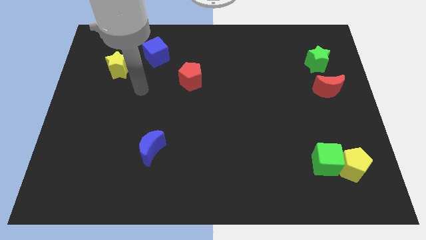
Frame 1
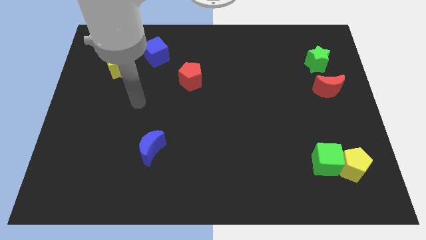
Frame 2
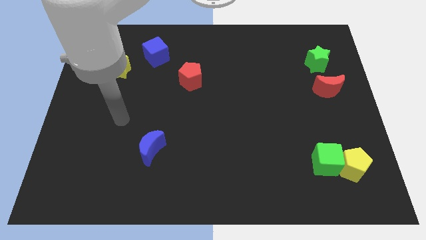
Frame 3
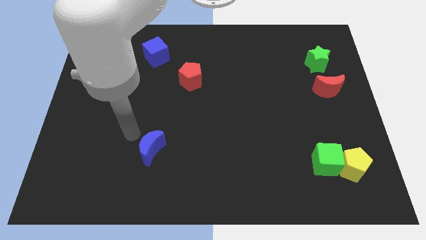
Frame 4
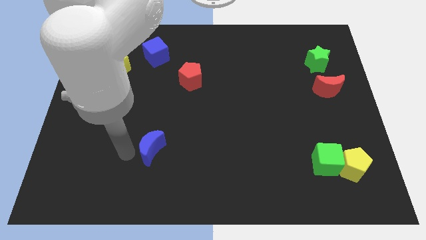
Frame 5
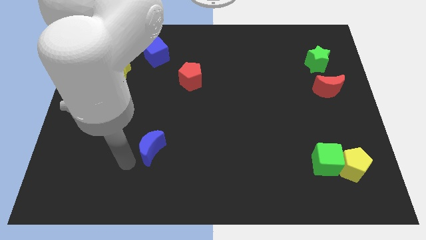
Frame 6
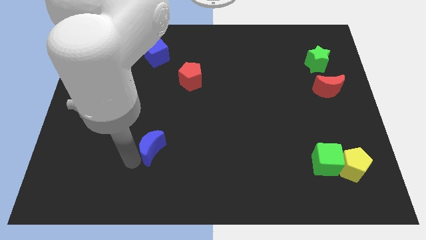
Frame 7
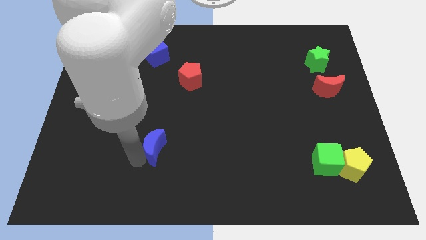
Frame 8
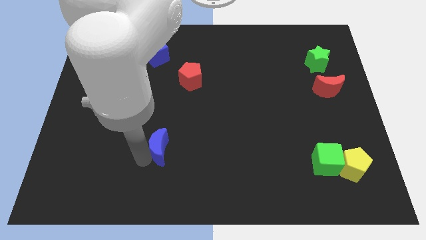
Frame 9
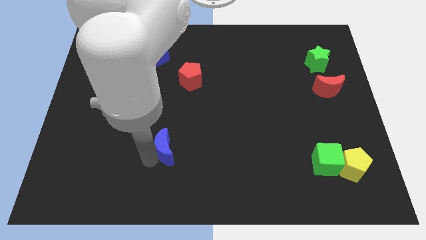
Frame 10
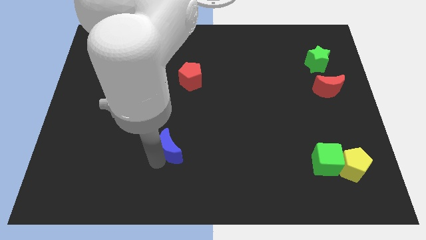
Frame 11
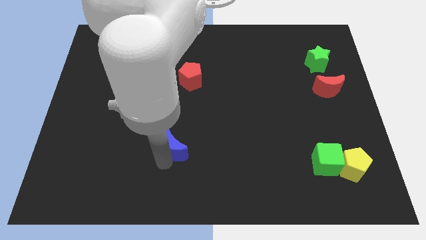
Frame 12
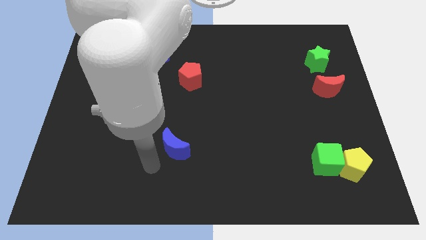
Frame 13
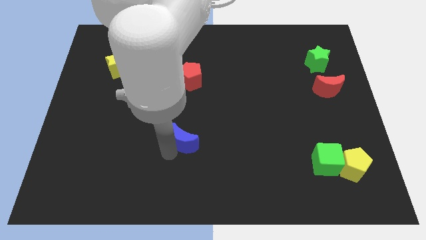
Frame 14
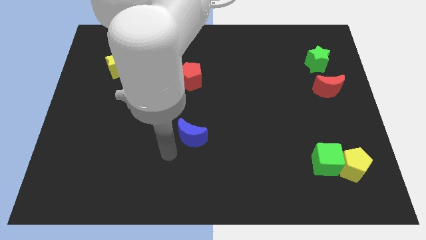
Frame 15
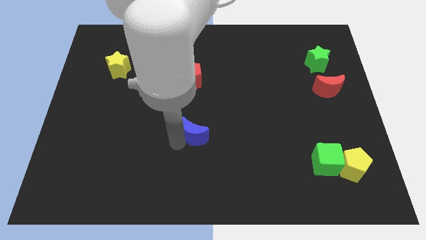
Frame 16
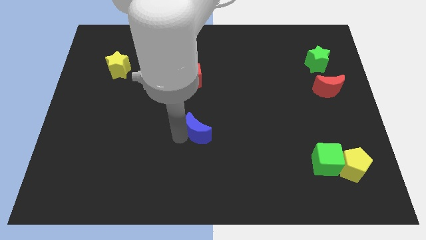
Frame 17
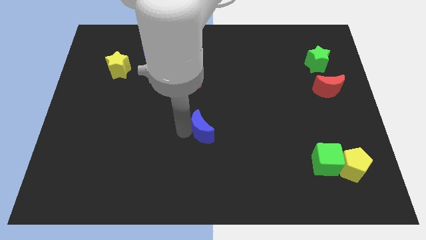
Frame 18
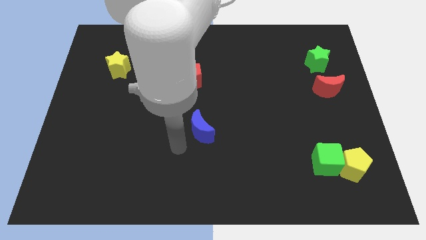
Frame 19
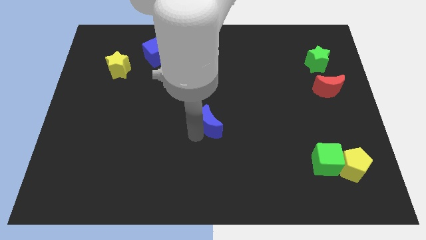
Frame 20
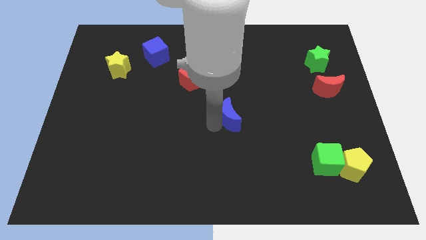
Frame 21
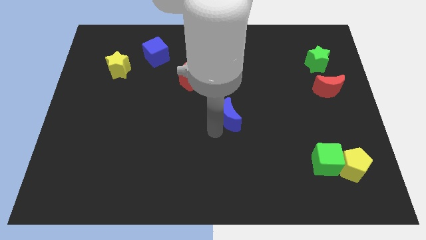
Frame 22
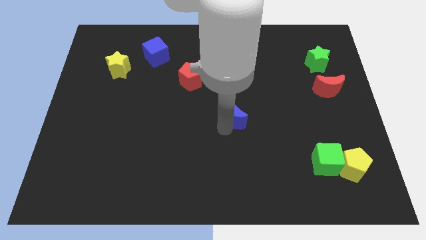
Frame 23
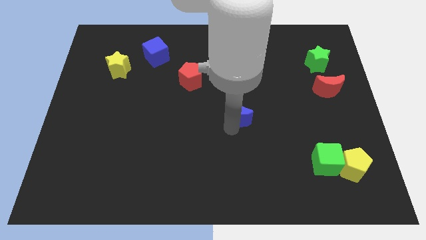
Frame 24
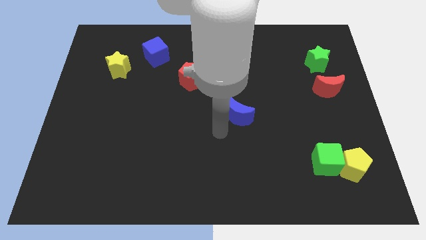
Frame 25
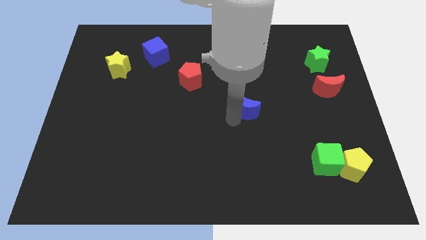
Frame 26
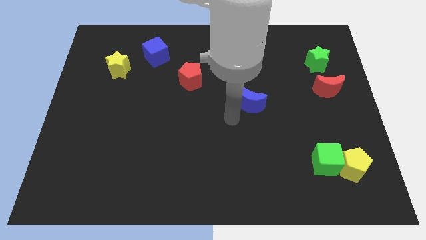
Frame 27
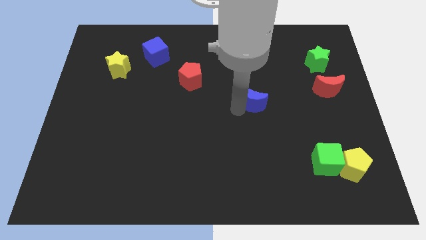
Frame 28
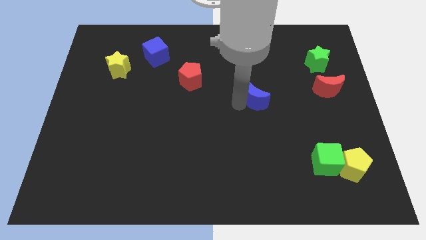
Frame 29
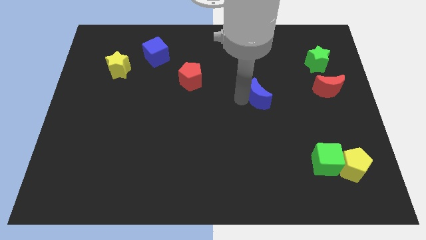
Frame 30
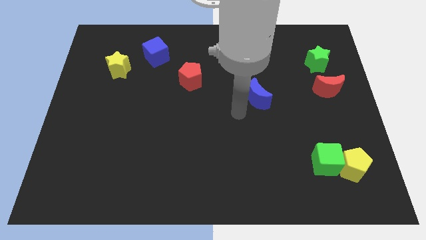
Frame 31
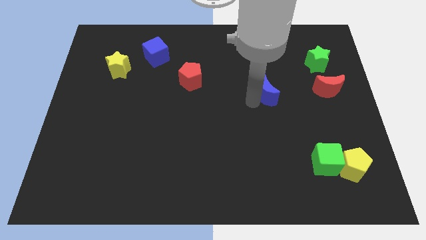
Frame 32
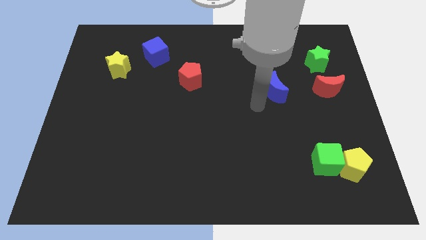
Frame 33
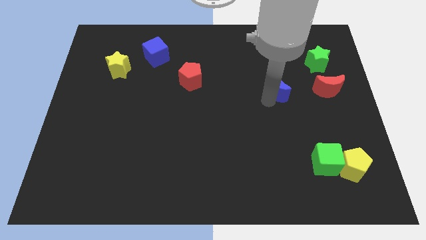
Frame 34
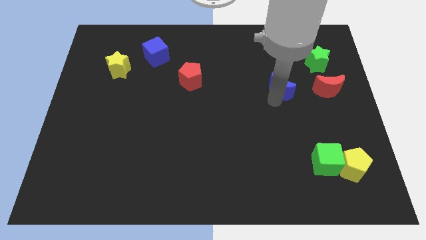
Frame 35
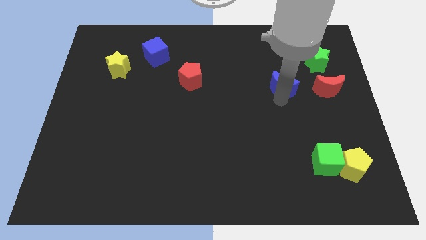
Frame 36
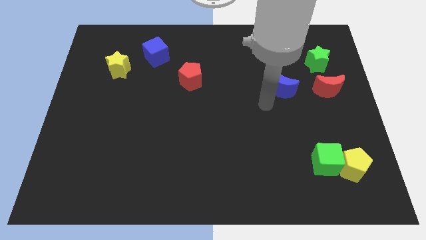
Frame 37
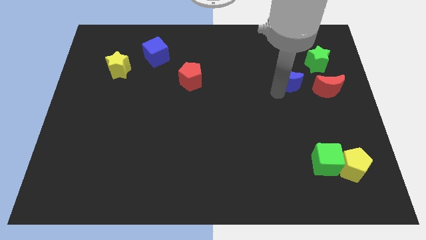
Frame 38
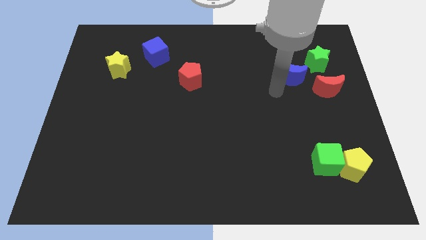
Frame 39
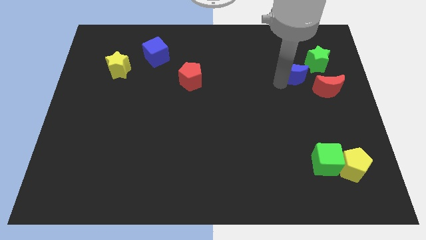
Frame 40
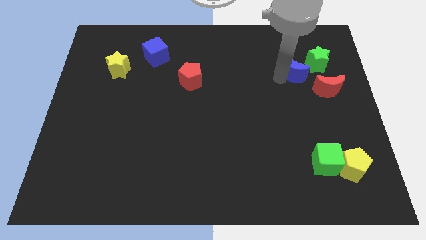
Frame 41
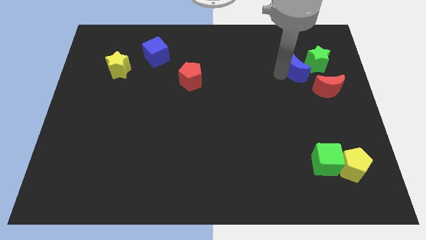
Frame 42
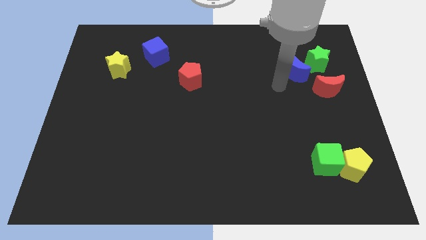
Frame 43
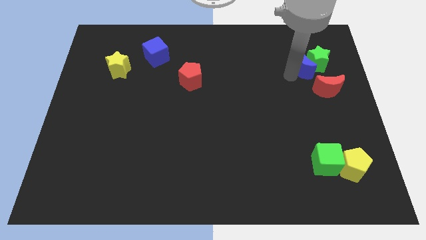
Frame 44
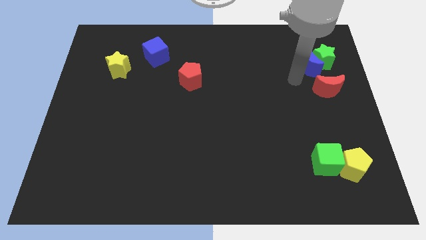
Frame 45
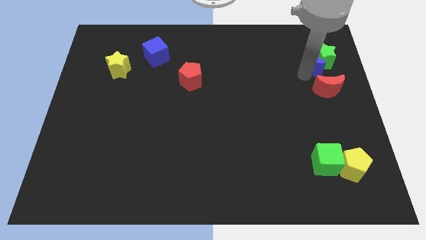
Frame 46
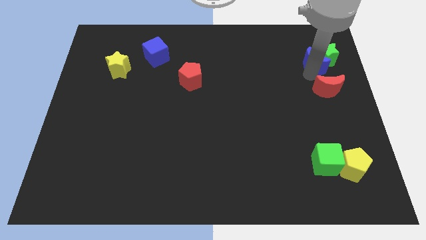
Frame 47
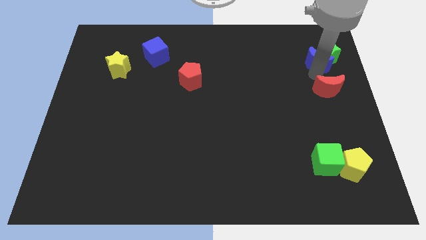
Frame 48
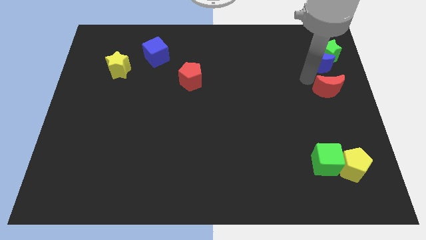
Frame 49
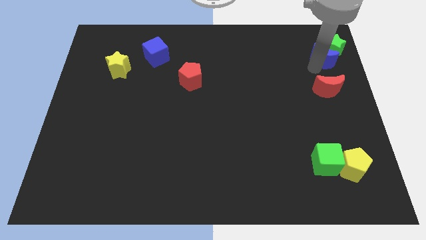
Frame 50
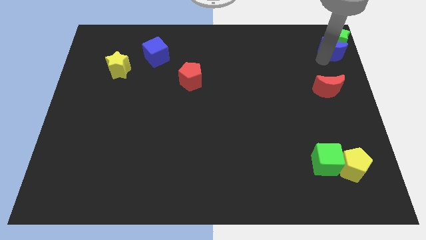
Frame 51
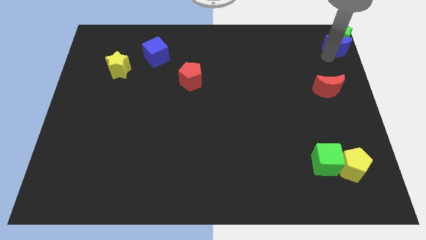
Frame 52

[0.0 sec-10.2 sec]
put the blue moon to the upper right corner

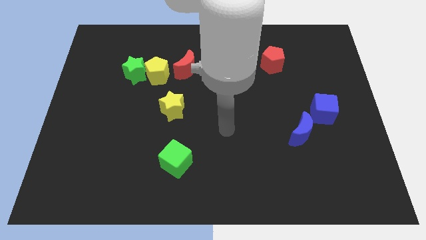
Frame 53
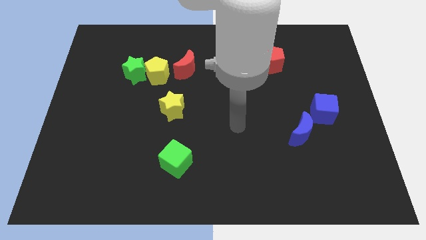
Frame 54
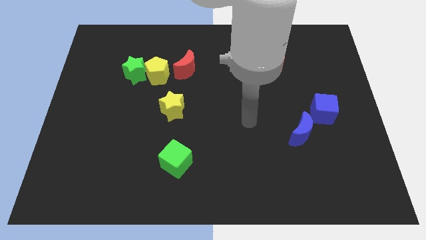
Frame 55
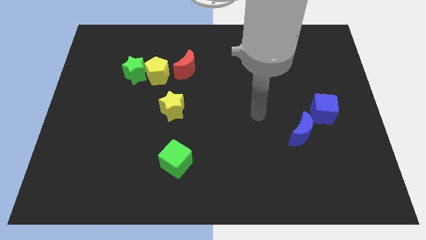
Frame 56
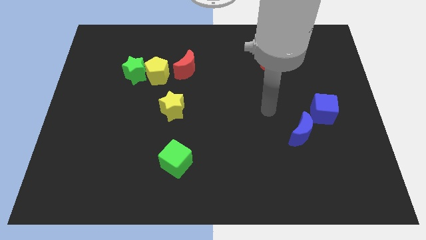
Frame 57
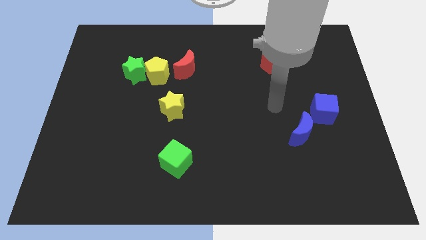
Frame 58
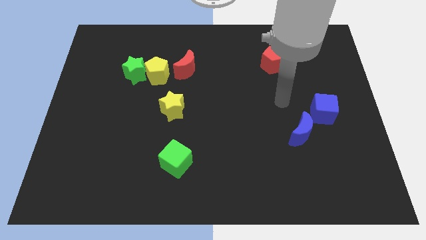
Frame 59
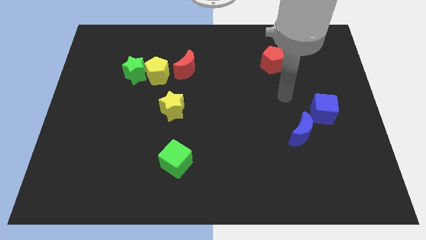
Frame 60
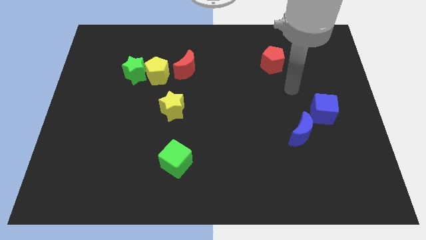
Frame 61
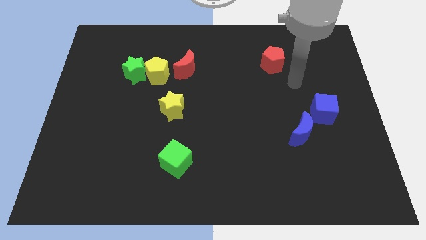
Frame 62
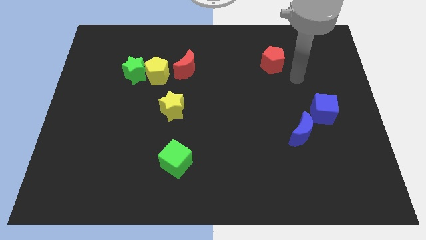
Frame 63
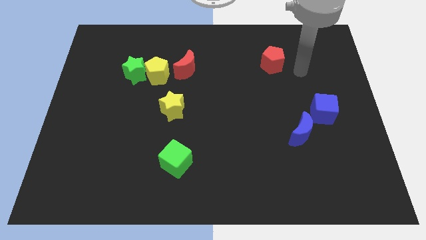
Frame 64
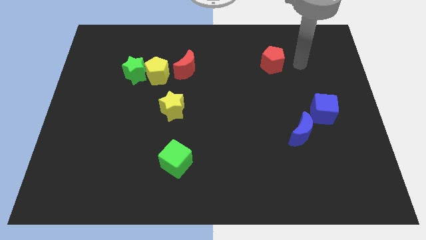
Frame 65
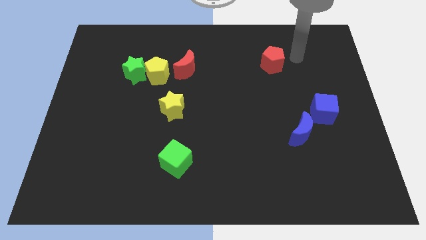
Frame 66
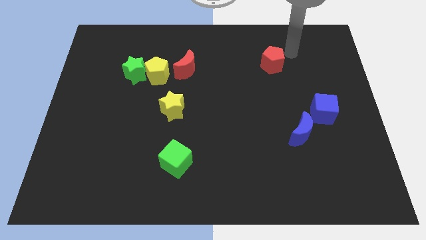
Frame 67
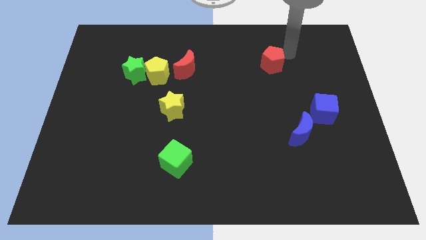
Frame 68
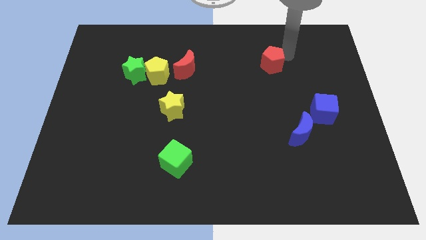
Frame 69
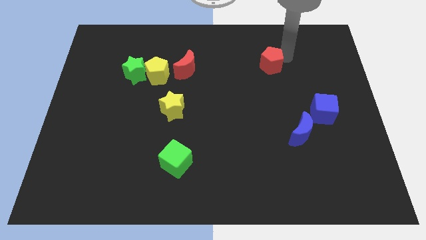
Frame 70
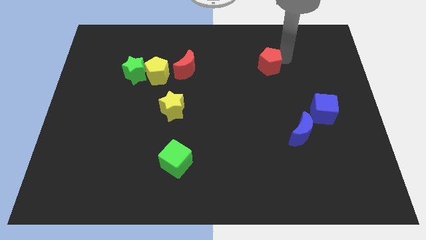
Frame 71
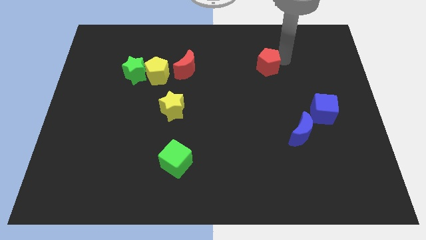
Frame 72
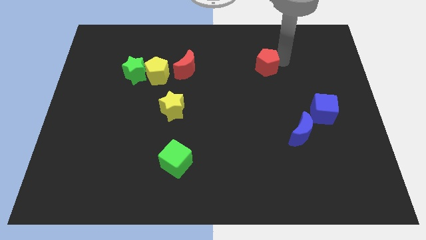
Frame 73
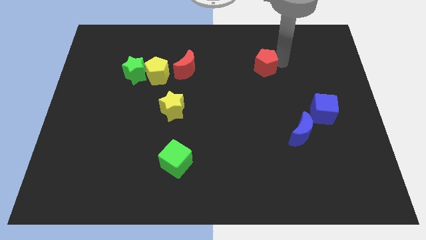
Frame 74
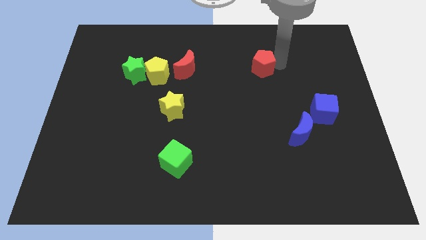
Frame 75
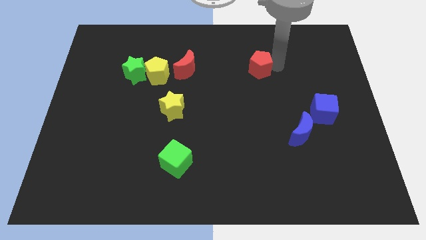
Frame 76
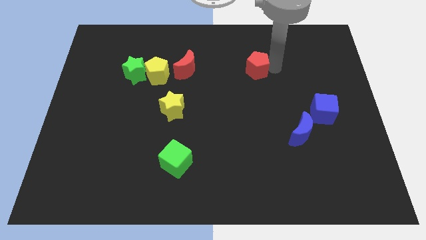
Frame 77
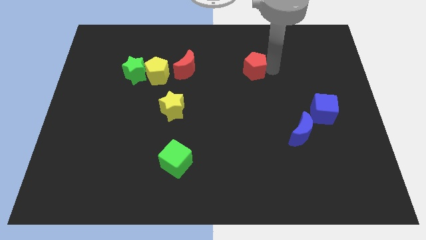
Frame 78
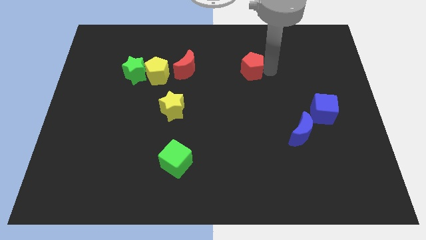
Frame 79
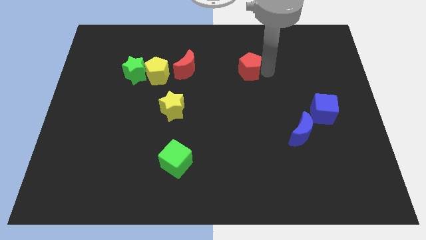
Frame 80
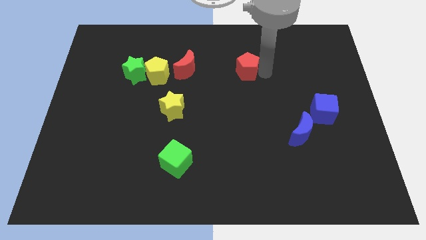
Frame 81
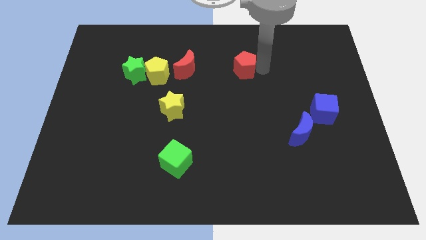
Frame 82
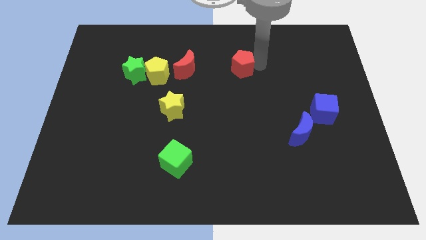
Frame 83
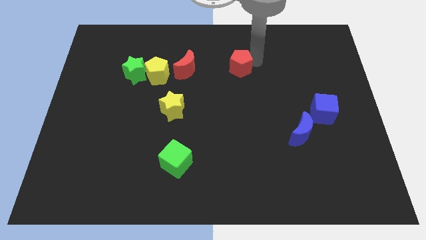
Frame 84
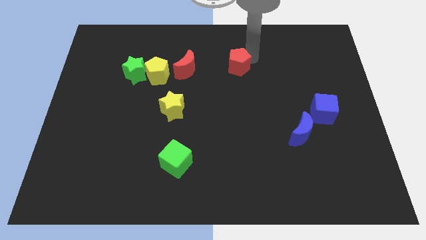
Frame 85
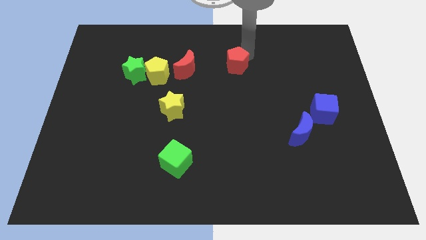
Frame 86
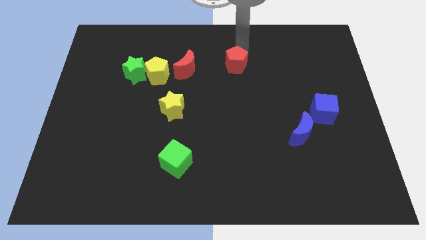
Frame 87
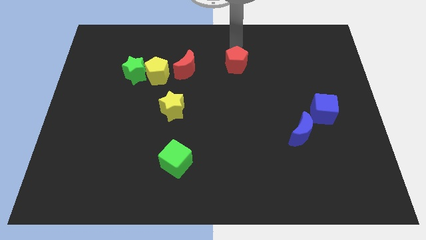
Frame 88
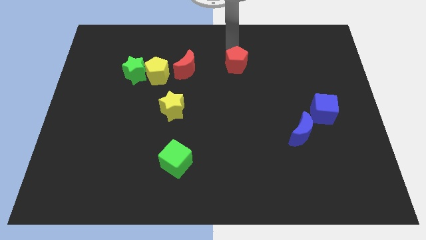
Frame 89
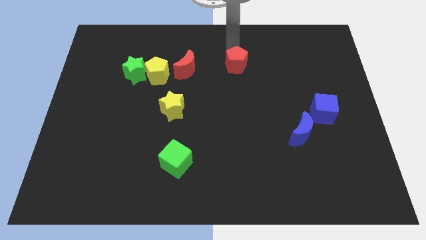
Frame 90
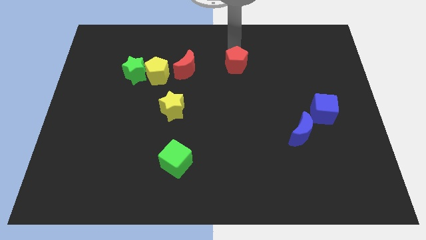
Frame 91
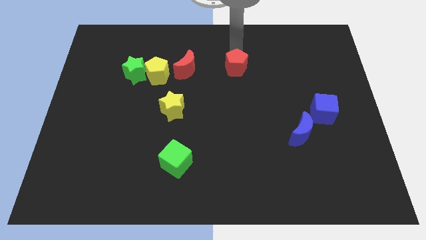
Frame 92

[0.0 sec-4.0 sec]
slide the red pentagon to the center of the board
